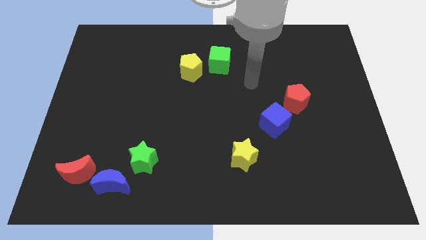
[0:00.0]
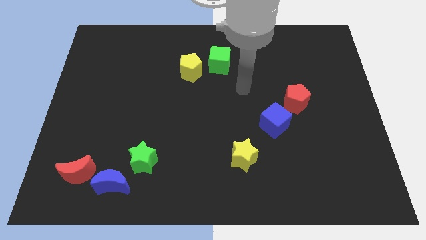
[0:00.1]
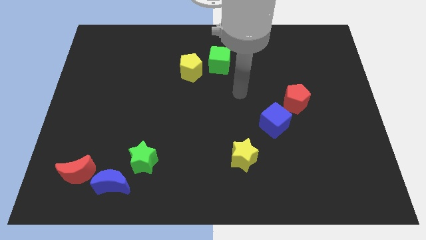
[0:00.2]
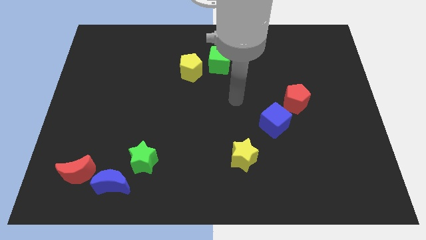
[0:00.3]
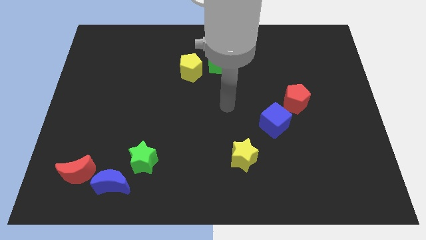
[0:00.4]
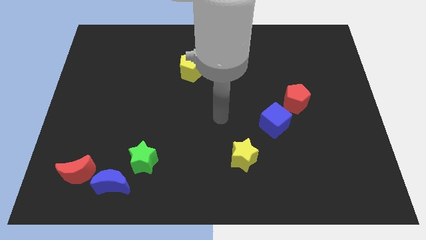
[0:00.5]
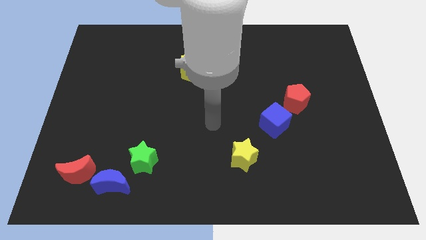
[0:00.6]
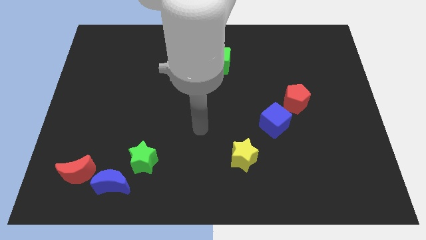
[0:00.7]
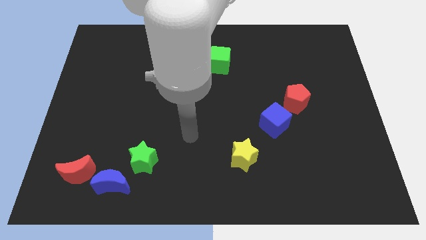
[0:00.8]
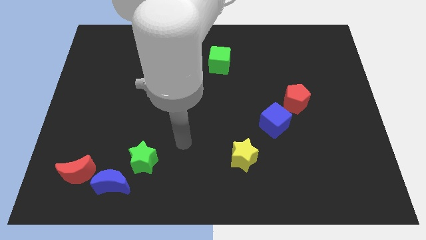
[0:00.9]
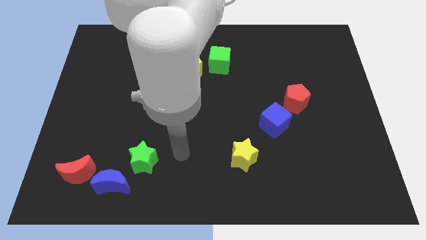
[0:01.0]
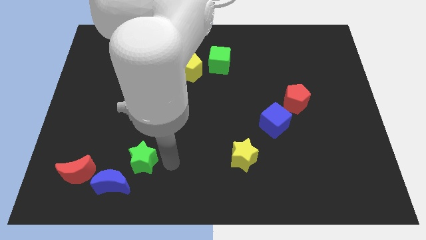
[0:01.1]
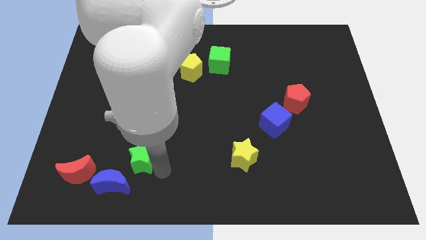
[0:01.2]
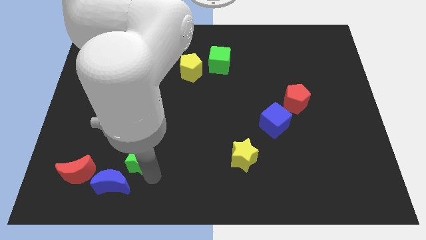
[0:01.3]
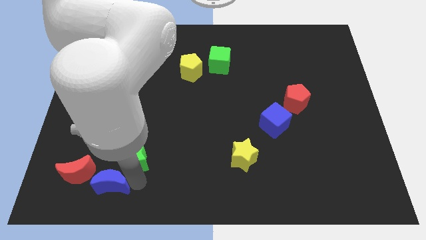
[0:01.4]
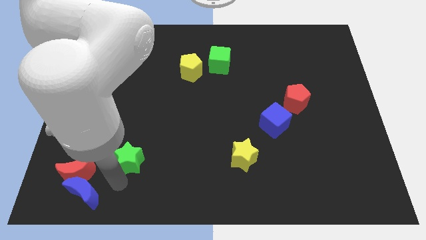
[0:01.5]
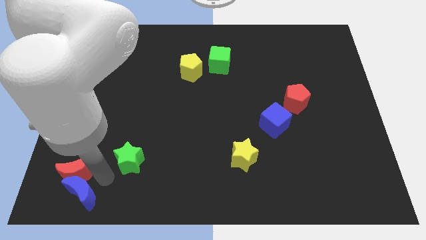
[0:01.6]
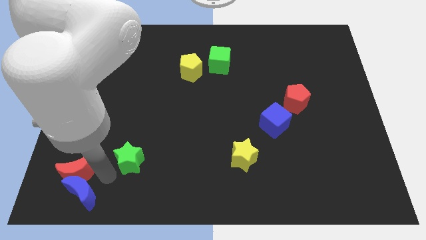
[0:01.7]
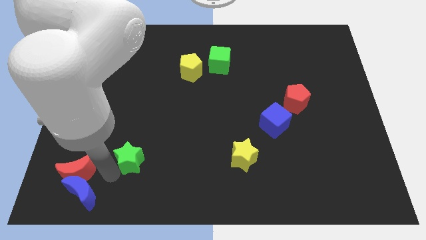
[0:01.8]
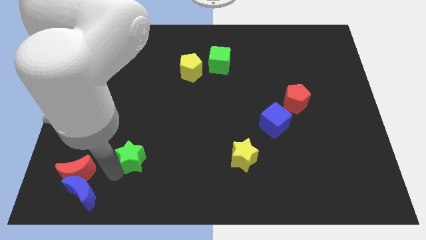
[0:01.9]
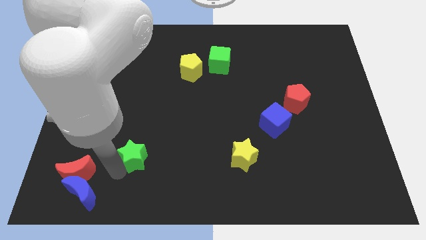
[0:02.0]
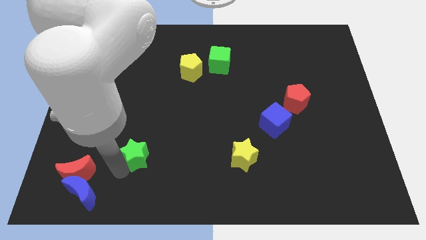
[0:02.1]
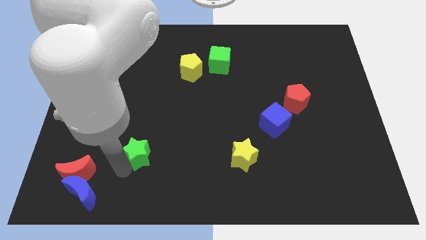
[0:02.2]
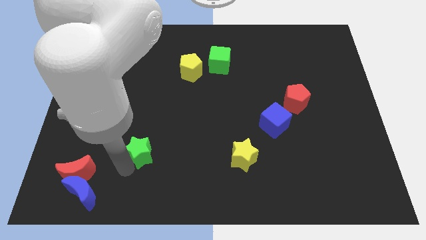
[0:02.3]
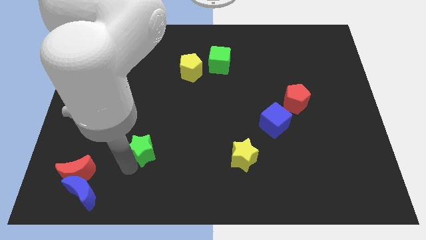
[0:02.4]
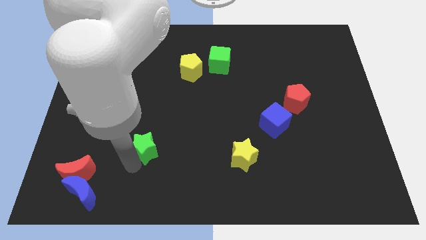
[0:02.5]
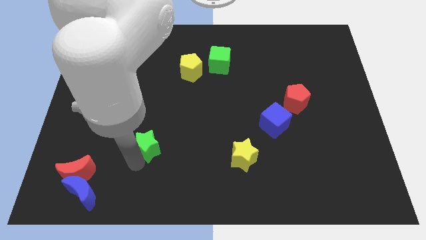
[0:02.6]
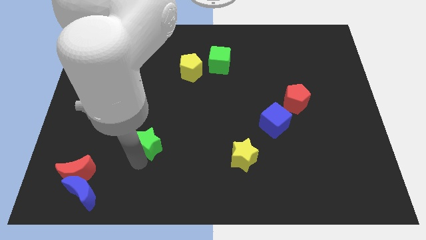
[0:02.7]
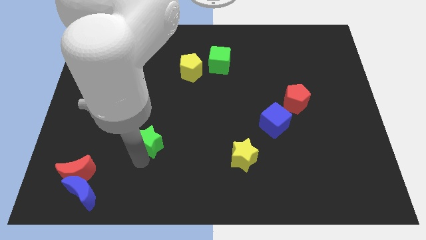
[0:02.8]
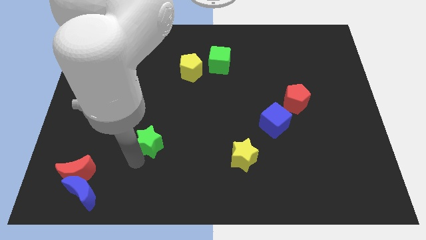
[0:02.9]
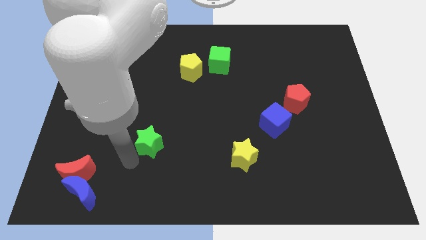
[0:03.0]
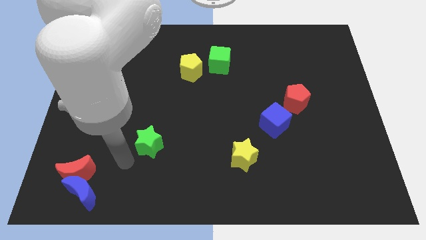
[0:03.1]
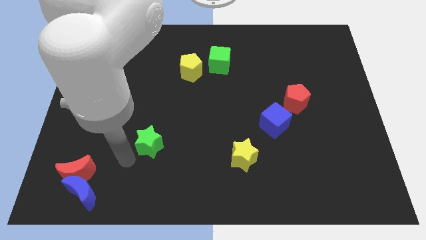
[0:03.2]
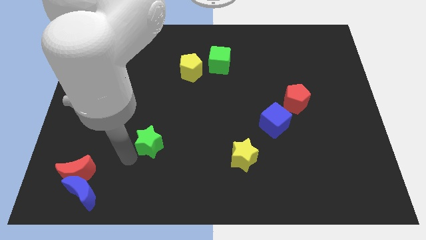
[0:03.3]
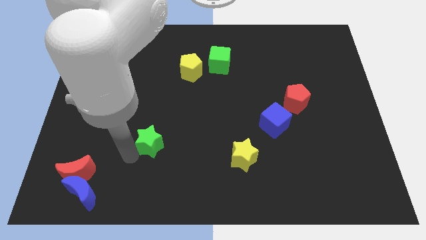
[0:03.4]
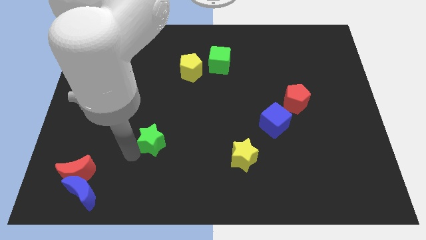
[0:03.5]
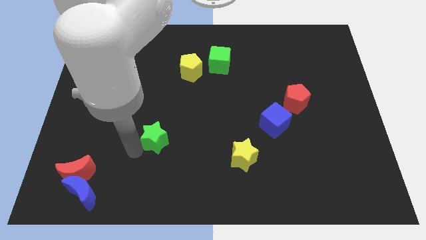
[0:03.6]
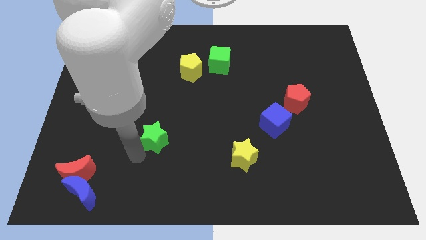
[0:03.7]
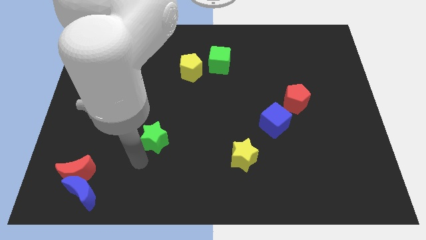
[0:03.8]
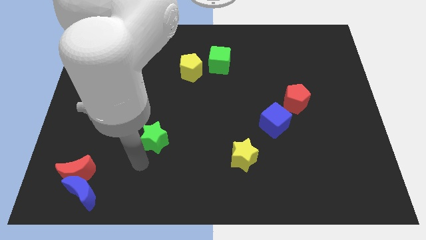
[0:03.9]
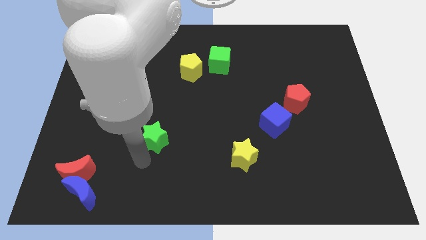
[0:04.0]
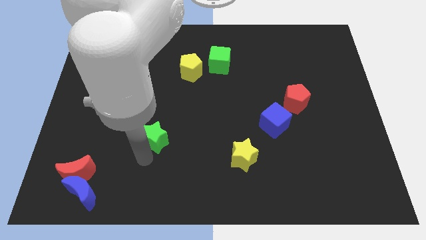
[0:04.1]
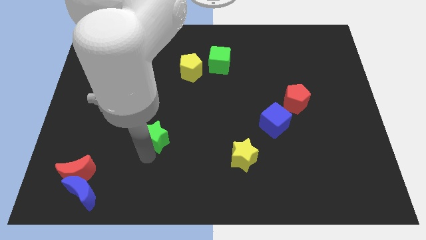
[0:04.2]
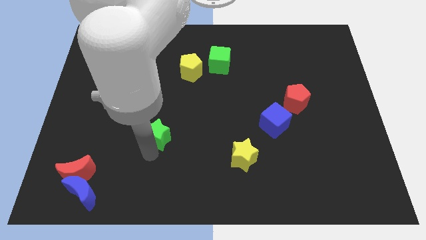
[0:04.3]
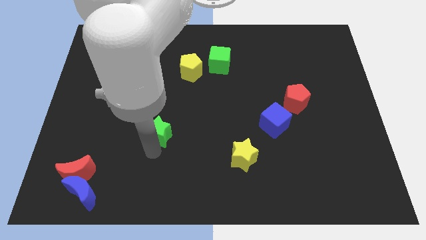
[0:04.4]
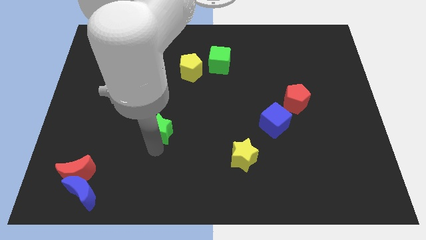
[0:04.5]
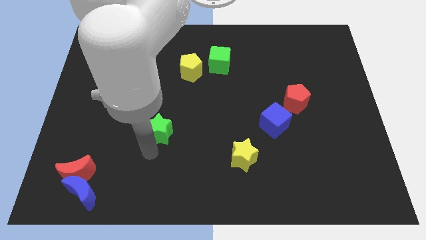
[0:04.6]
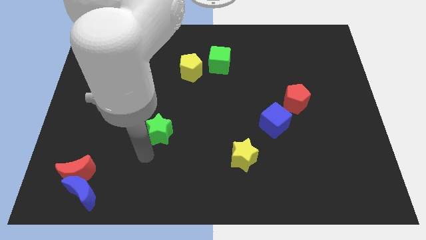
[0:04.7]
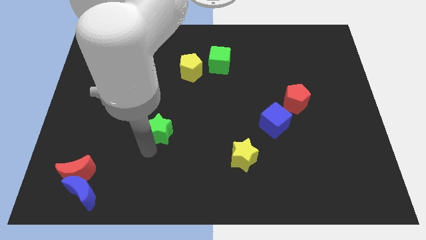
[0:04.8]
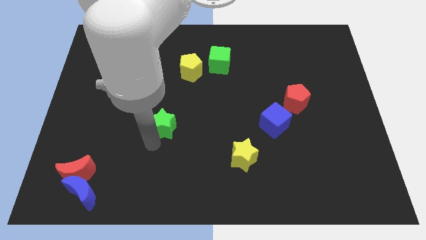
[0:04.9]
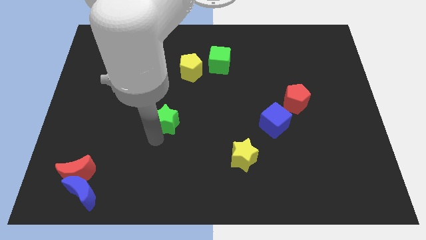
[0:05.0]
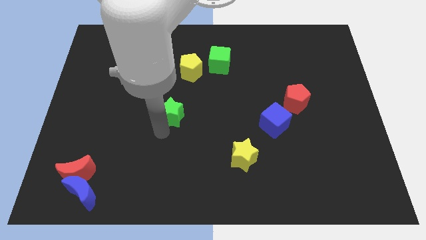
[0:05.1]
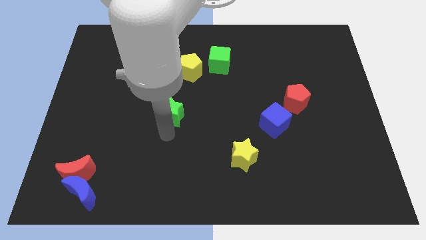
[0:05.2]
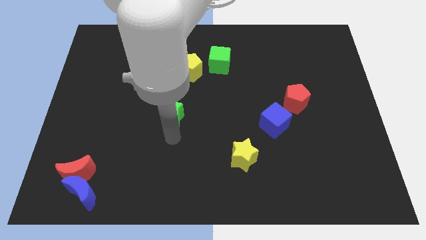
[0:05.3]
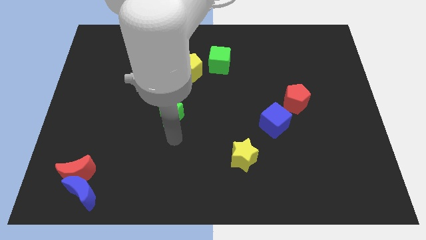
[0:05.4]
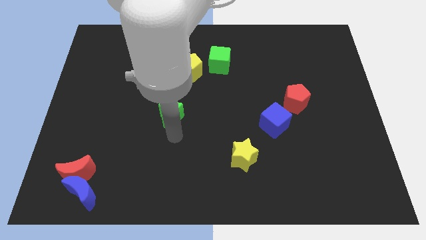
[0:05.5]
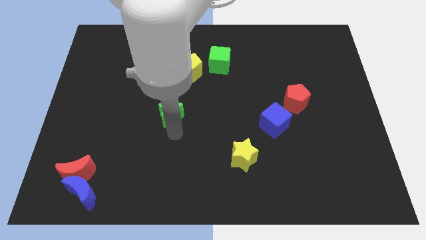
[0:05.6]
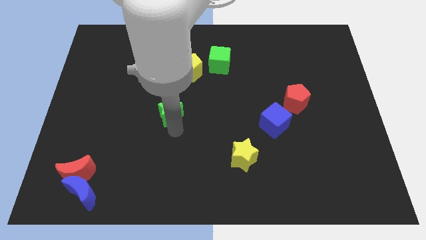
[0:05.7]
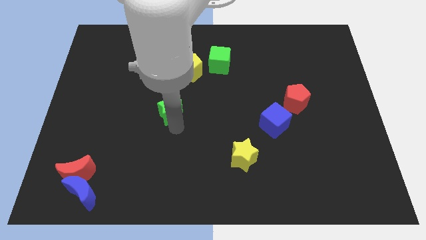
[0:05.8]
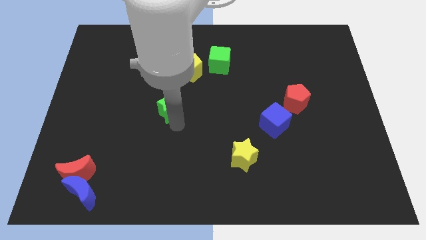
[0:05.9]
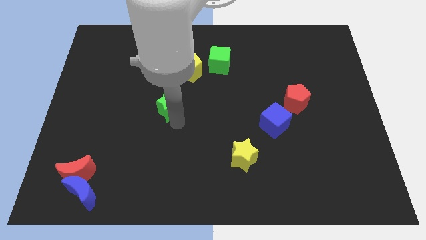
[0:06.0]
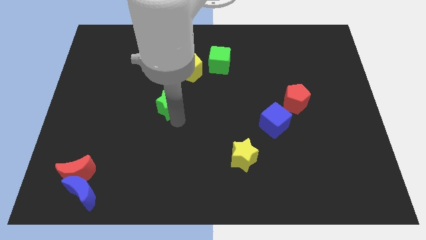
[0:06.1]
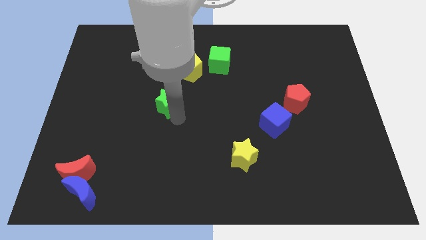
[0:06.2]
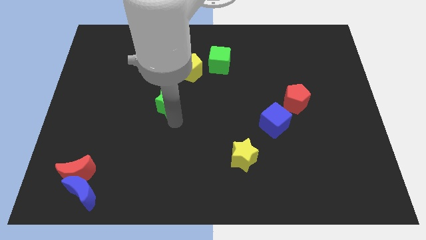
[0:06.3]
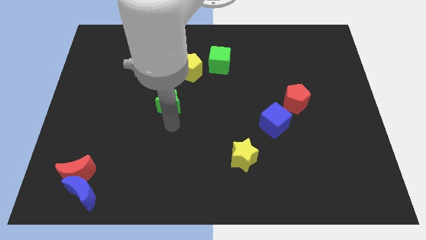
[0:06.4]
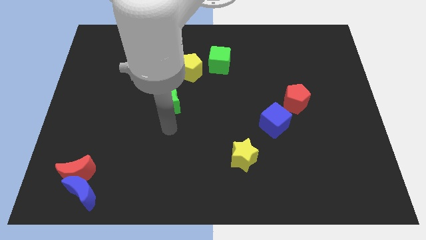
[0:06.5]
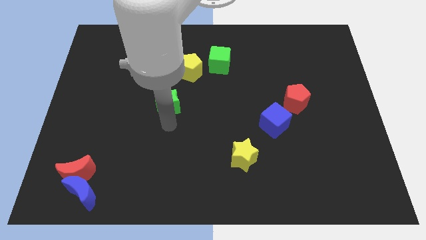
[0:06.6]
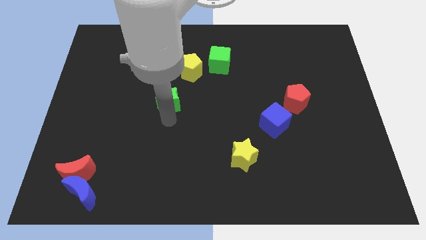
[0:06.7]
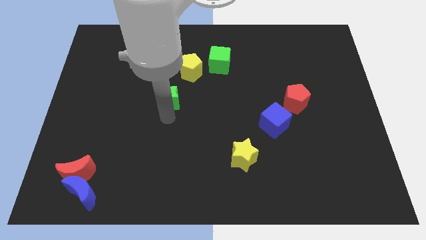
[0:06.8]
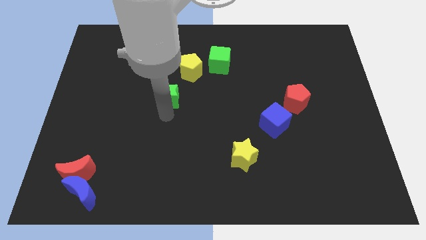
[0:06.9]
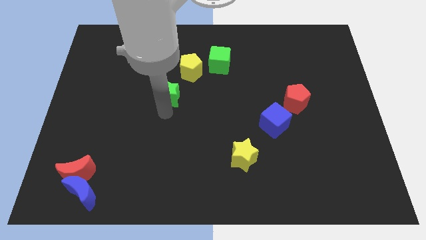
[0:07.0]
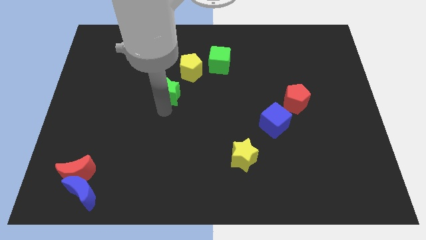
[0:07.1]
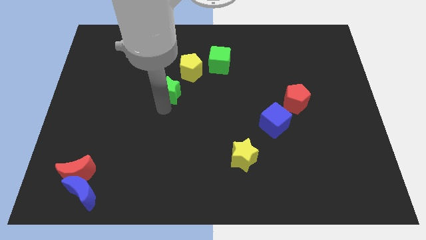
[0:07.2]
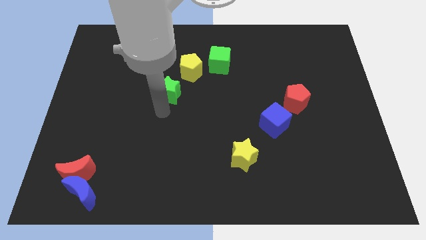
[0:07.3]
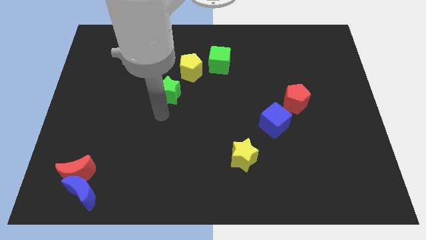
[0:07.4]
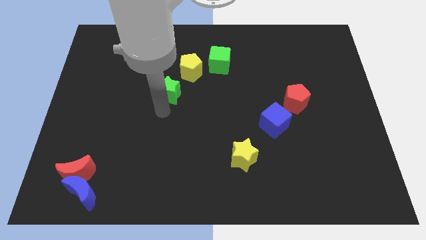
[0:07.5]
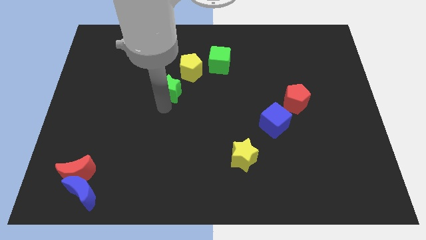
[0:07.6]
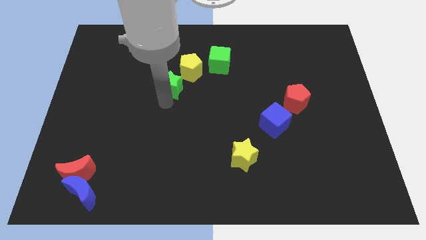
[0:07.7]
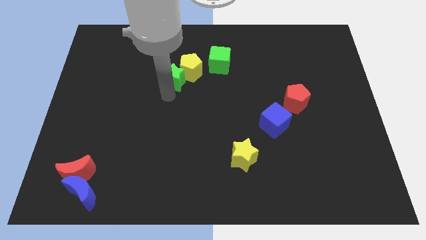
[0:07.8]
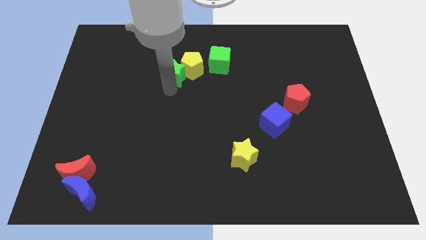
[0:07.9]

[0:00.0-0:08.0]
put the green star just left of the green cube
